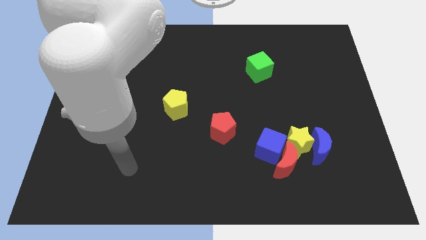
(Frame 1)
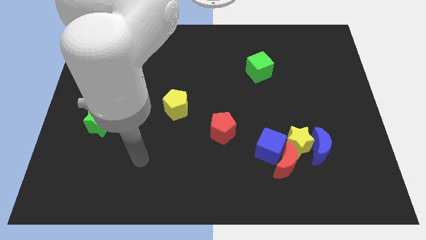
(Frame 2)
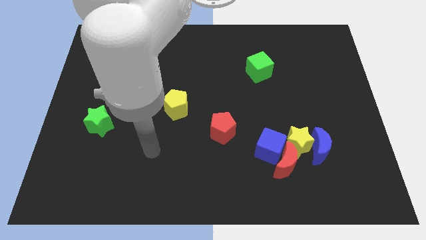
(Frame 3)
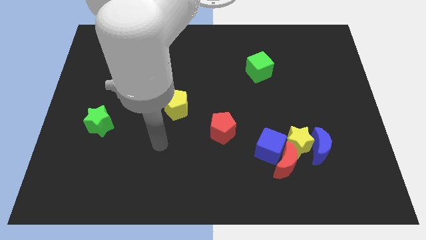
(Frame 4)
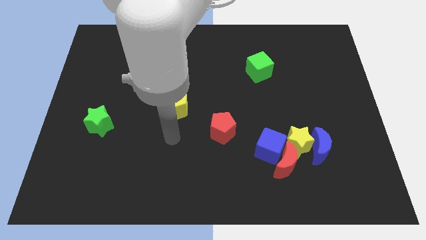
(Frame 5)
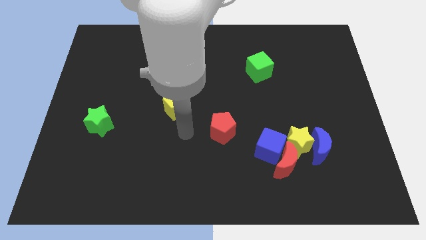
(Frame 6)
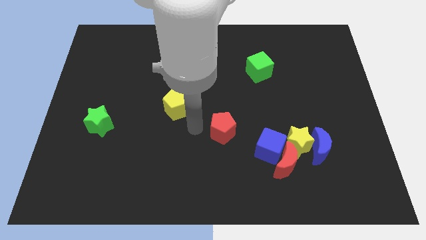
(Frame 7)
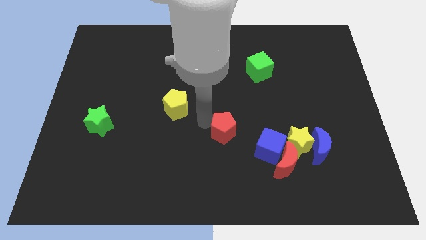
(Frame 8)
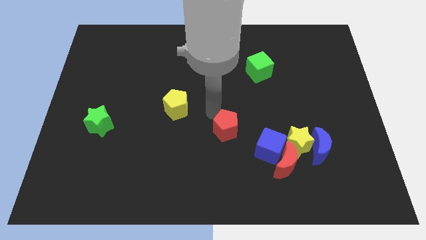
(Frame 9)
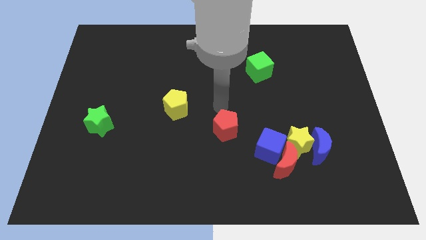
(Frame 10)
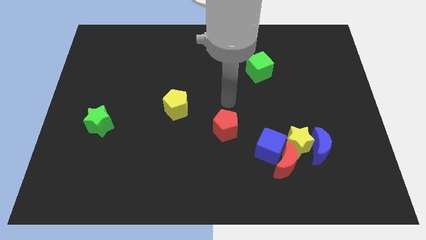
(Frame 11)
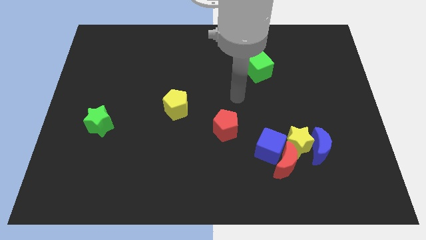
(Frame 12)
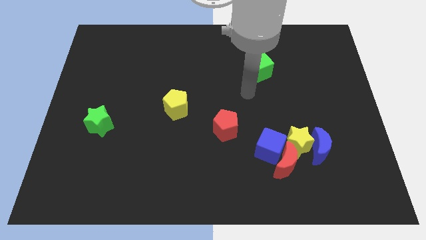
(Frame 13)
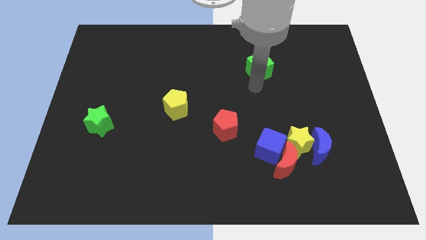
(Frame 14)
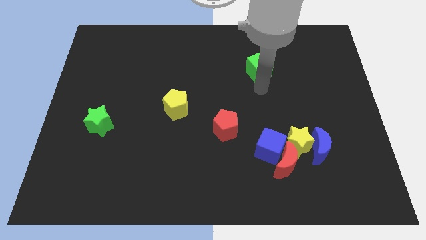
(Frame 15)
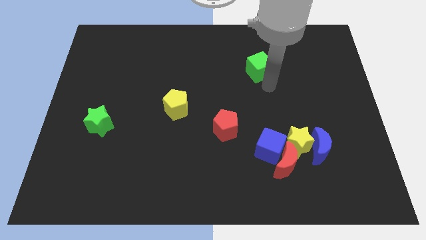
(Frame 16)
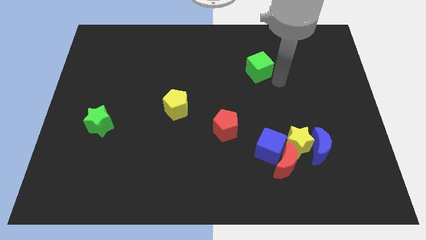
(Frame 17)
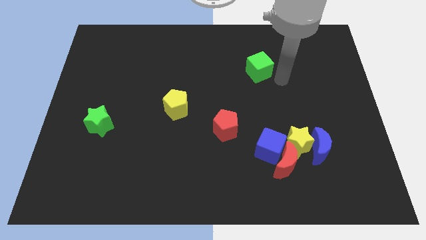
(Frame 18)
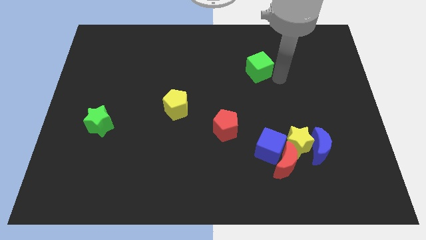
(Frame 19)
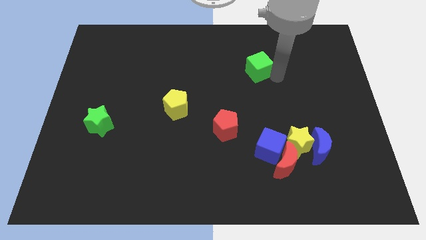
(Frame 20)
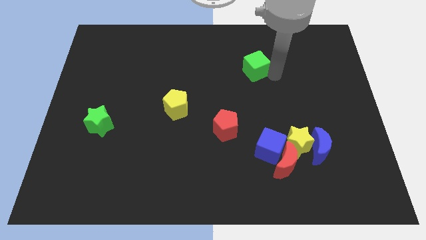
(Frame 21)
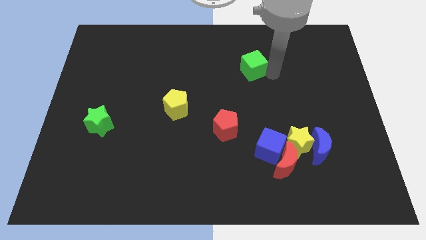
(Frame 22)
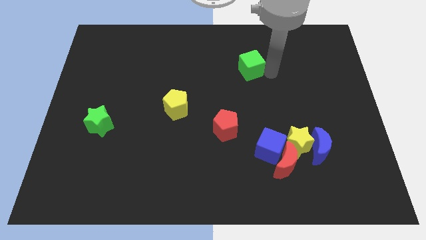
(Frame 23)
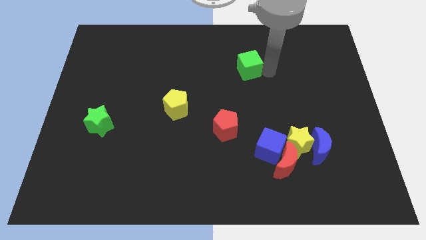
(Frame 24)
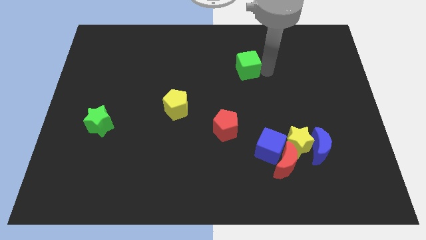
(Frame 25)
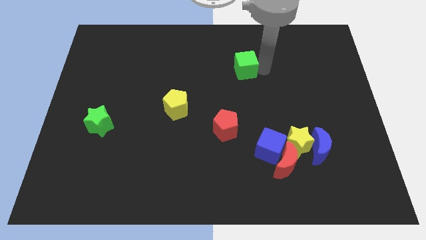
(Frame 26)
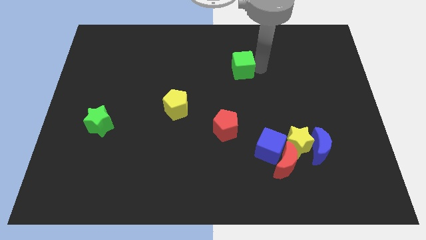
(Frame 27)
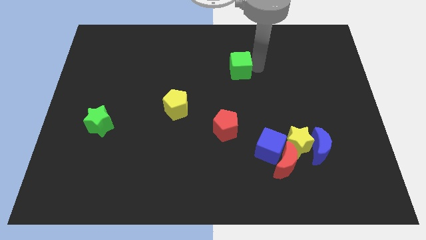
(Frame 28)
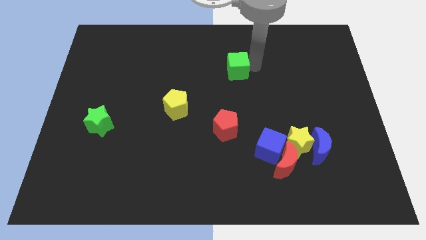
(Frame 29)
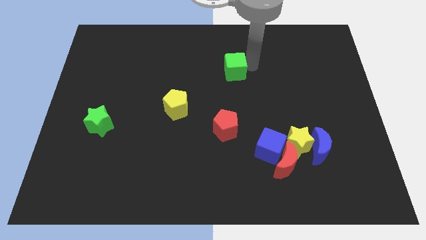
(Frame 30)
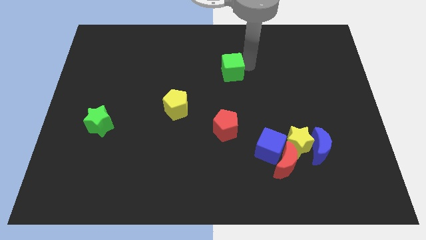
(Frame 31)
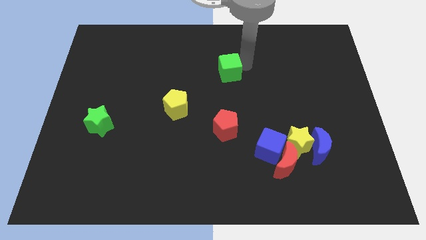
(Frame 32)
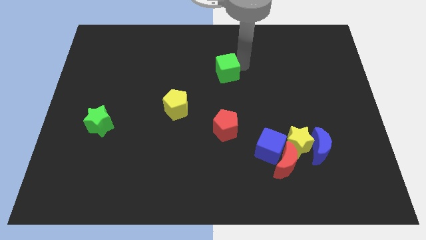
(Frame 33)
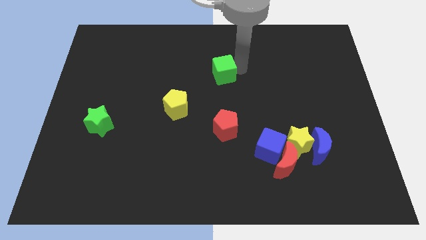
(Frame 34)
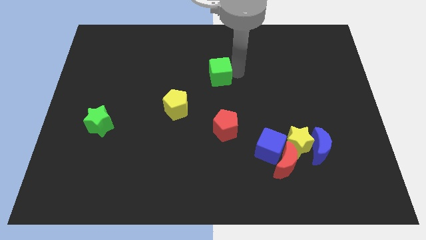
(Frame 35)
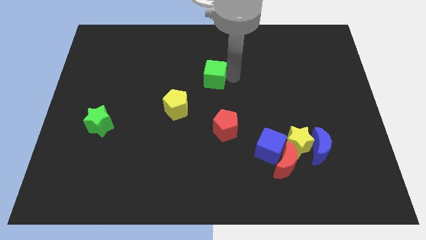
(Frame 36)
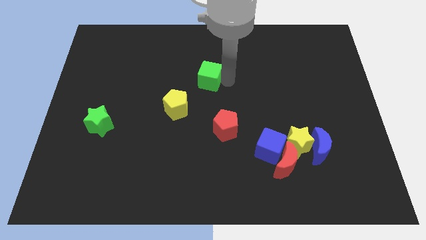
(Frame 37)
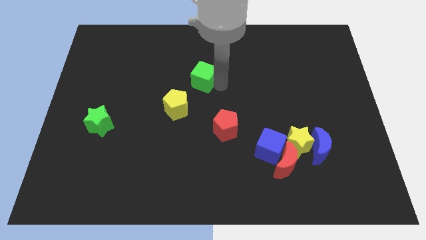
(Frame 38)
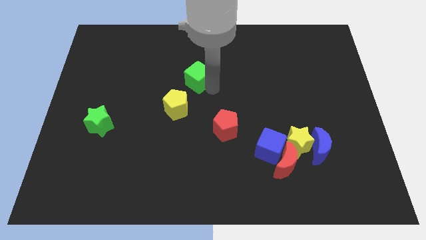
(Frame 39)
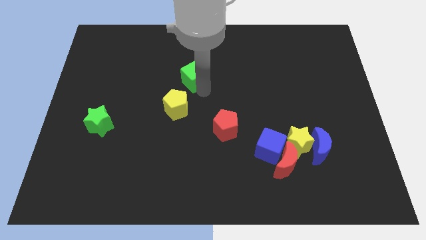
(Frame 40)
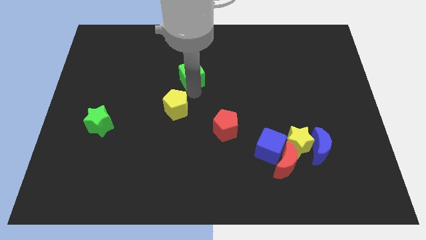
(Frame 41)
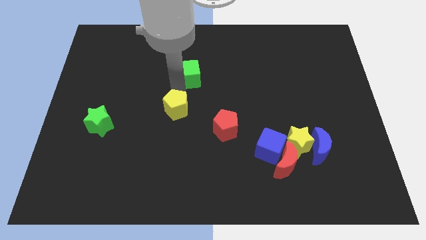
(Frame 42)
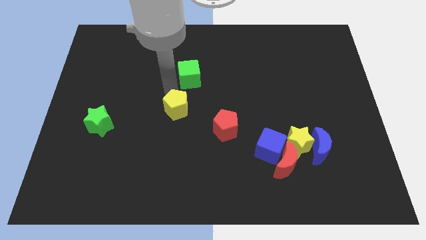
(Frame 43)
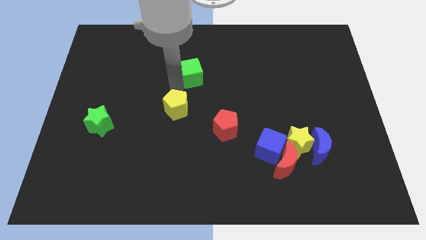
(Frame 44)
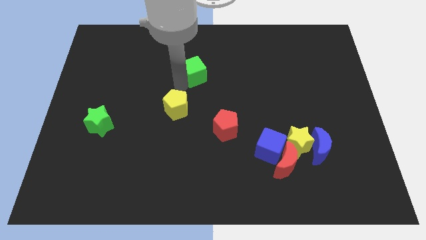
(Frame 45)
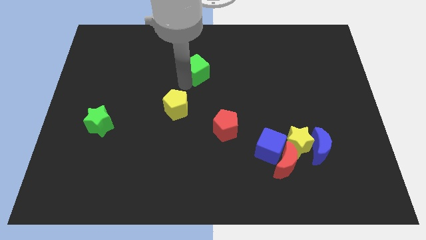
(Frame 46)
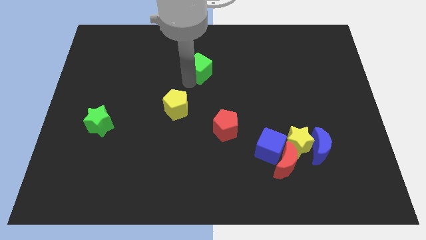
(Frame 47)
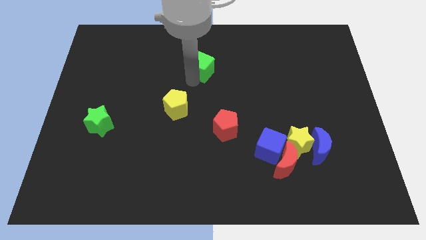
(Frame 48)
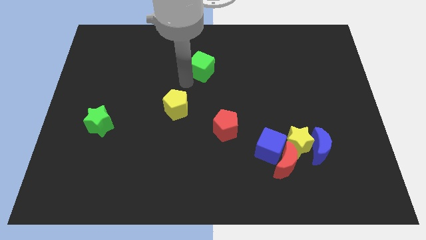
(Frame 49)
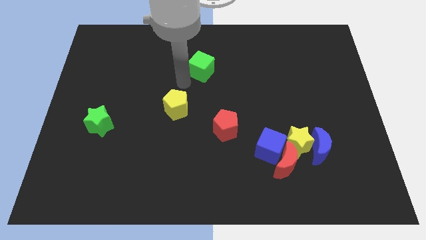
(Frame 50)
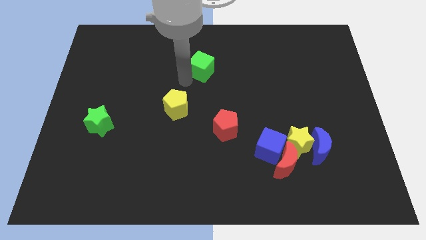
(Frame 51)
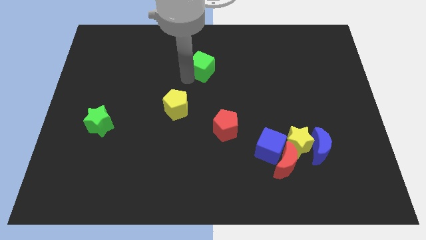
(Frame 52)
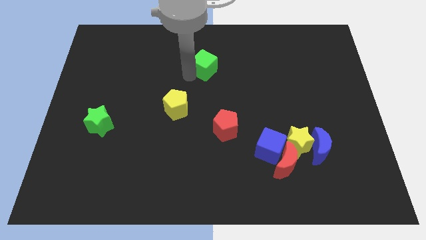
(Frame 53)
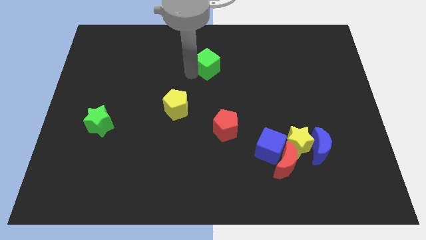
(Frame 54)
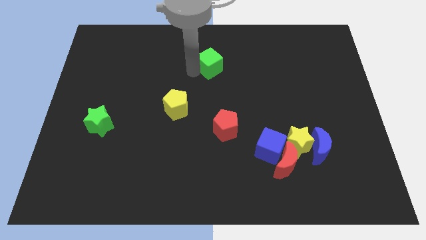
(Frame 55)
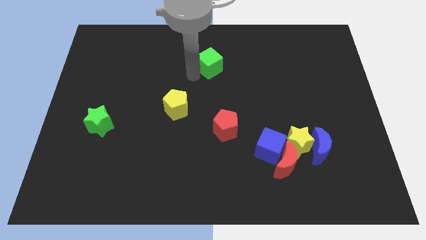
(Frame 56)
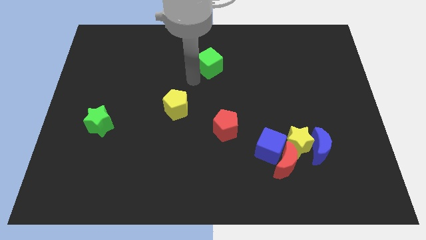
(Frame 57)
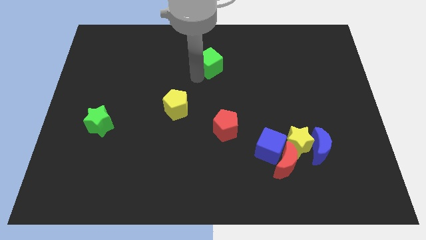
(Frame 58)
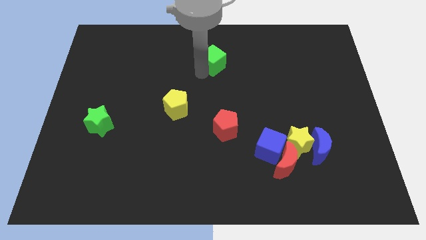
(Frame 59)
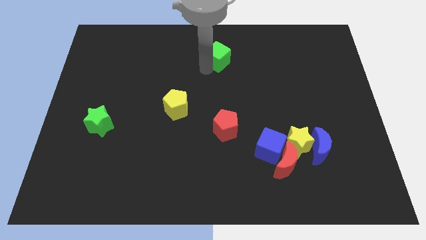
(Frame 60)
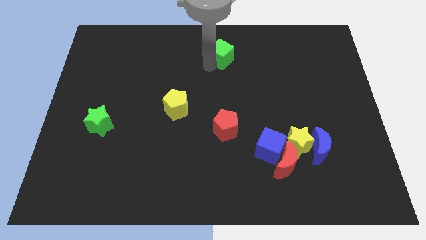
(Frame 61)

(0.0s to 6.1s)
put the green cube to the top
